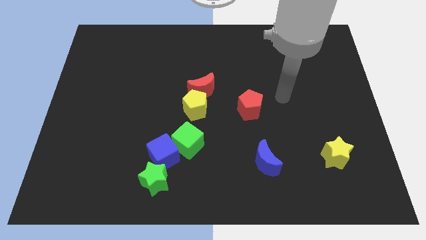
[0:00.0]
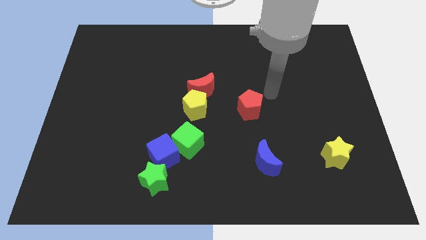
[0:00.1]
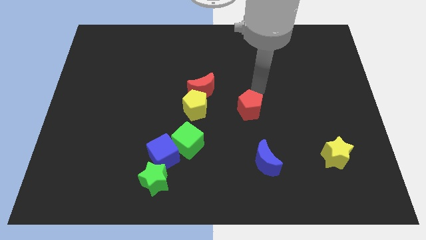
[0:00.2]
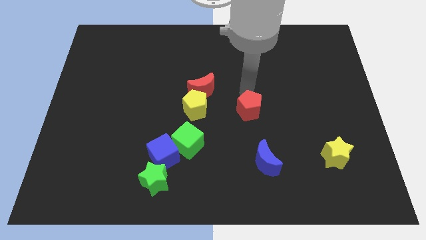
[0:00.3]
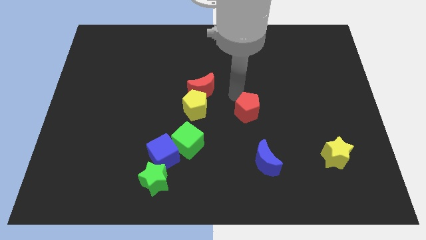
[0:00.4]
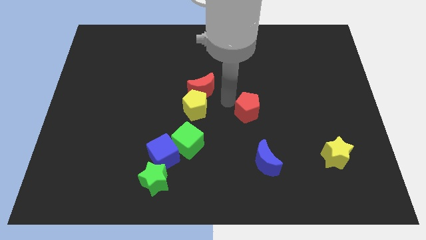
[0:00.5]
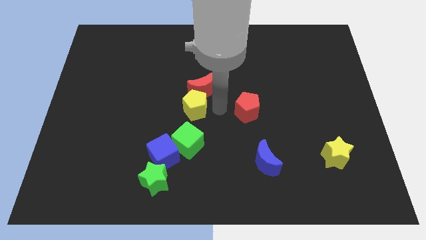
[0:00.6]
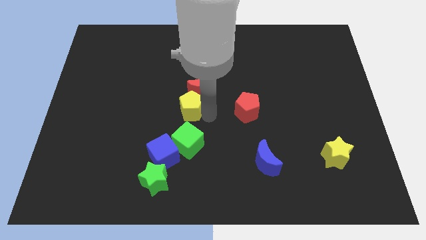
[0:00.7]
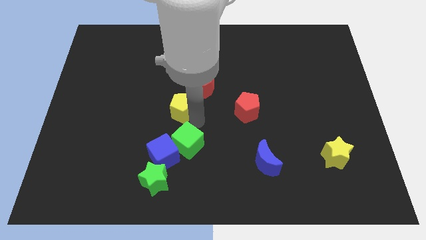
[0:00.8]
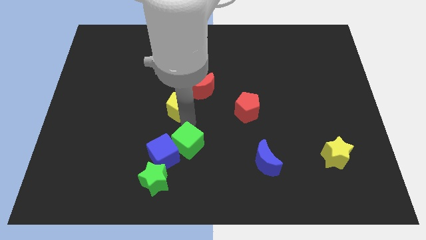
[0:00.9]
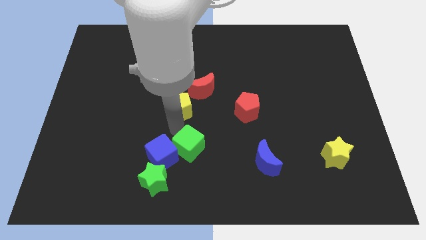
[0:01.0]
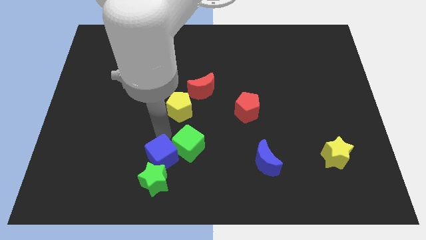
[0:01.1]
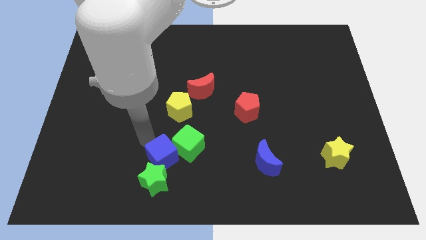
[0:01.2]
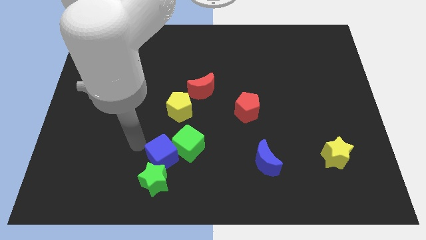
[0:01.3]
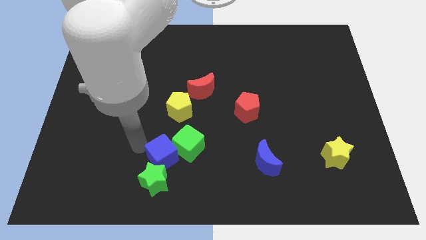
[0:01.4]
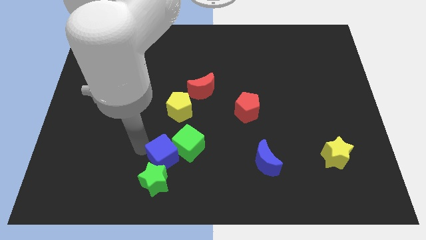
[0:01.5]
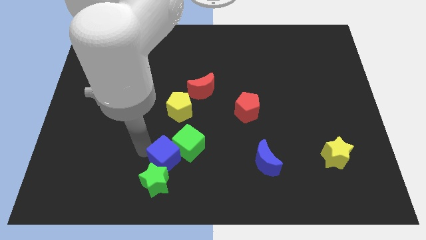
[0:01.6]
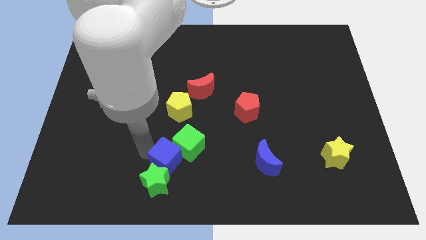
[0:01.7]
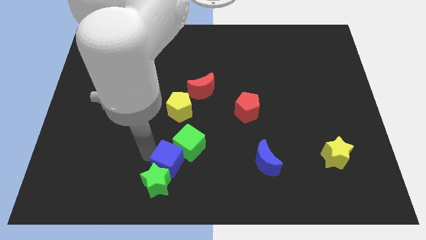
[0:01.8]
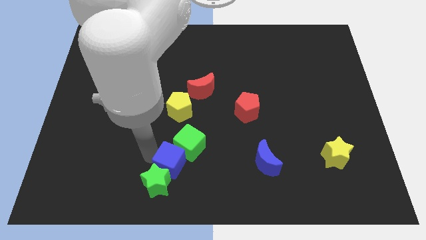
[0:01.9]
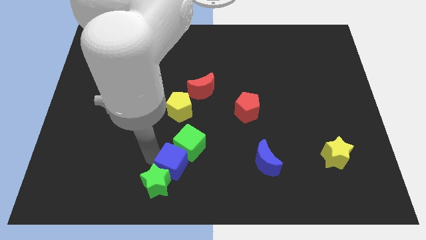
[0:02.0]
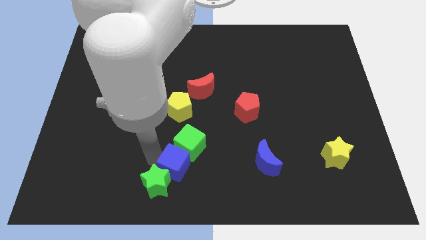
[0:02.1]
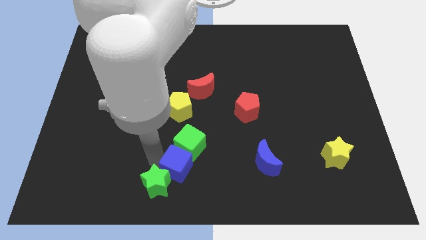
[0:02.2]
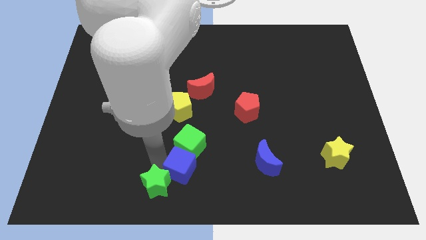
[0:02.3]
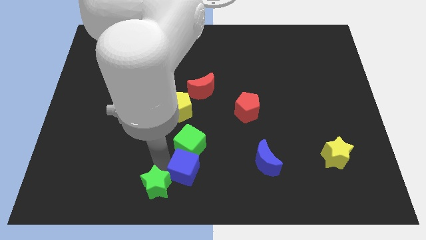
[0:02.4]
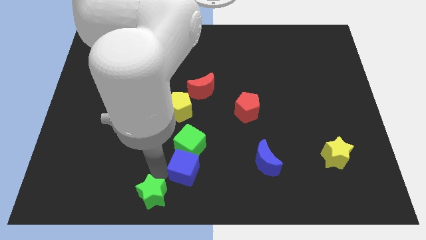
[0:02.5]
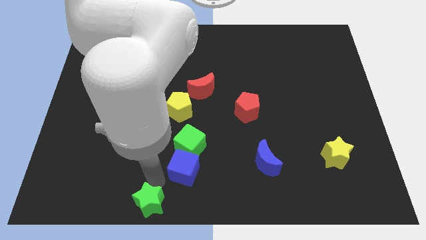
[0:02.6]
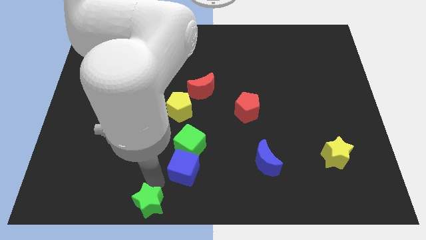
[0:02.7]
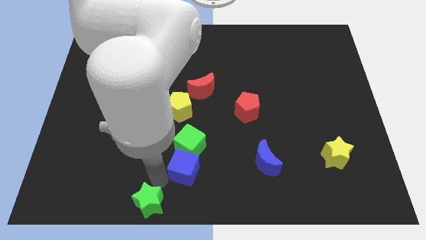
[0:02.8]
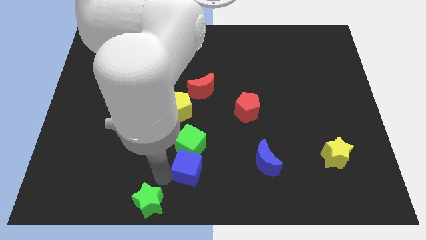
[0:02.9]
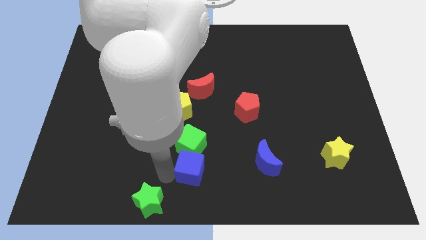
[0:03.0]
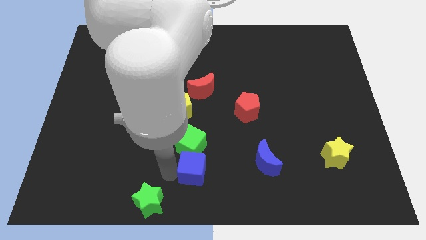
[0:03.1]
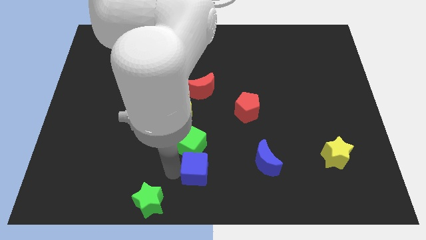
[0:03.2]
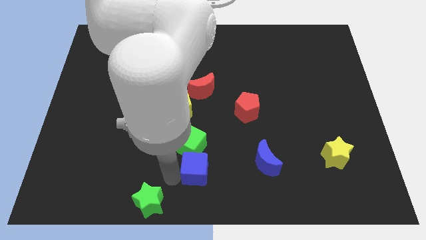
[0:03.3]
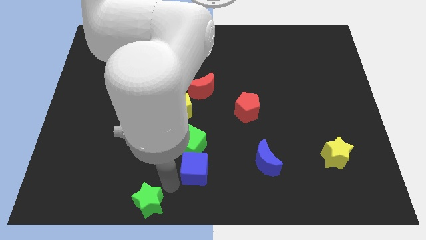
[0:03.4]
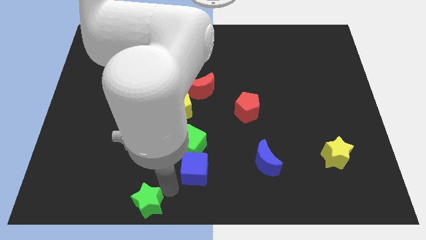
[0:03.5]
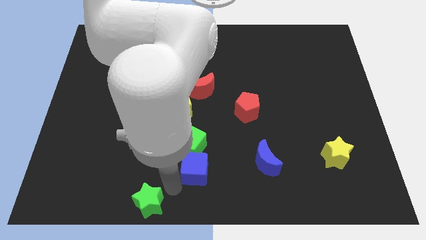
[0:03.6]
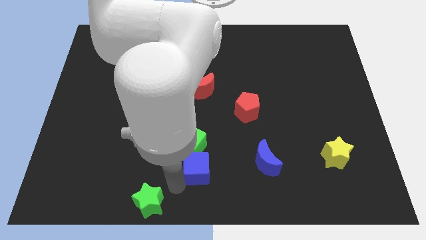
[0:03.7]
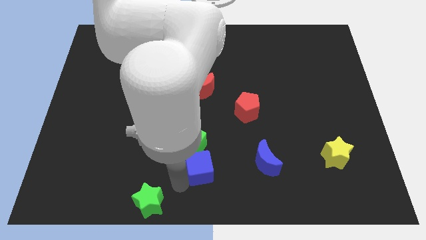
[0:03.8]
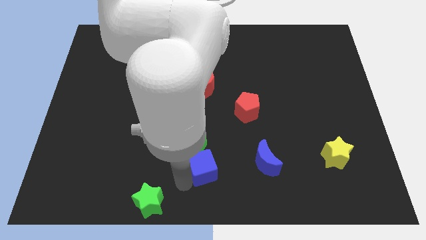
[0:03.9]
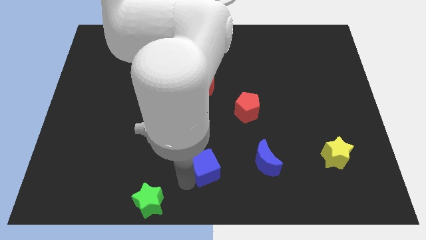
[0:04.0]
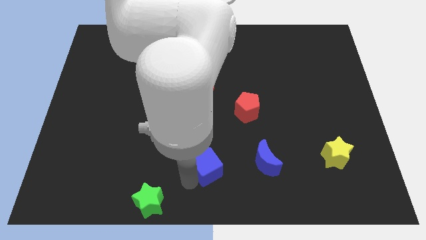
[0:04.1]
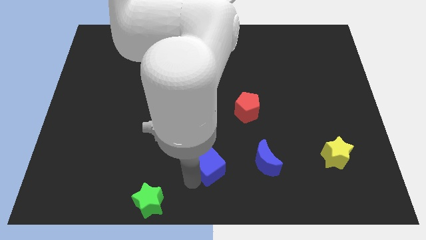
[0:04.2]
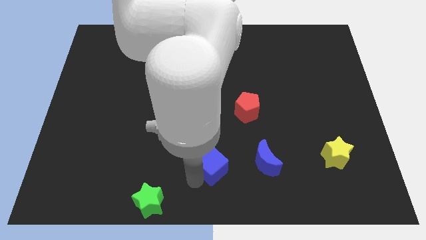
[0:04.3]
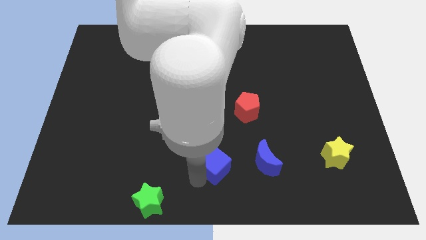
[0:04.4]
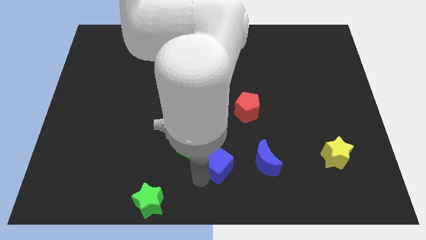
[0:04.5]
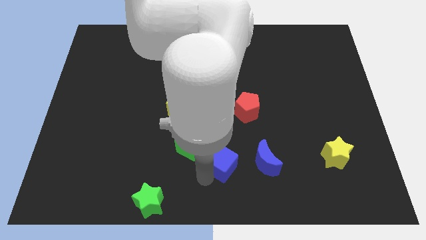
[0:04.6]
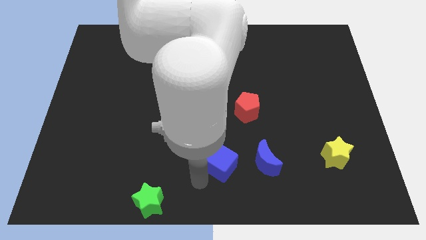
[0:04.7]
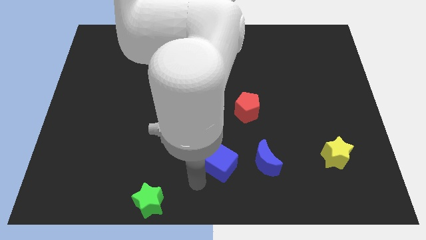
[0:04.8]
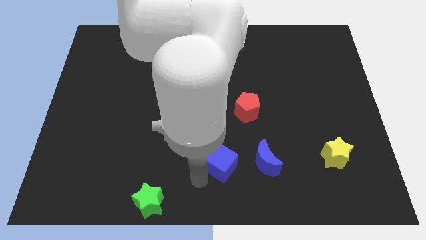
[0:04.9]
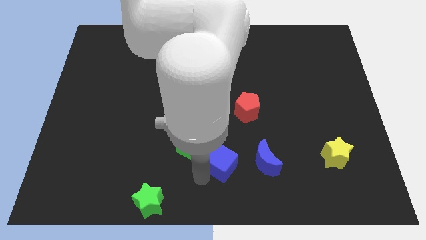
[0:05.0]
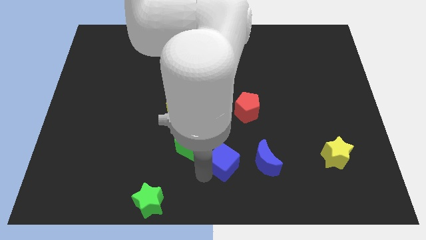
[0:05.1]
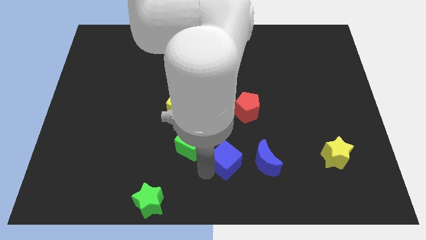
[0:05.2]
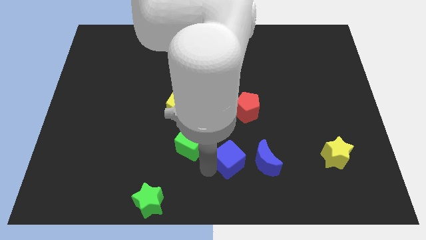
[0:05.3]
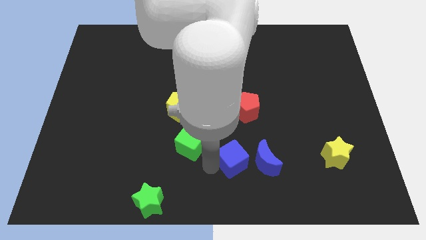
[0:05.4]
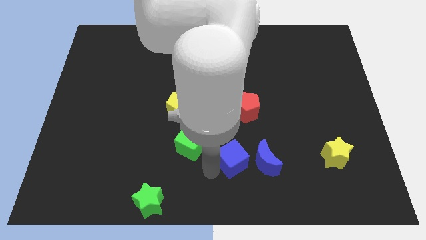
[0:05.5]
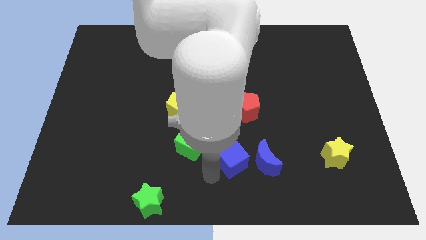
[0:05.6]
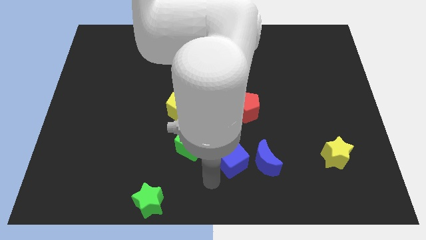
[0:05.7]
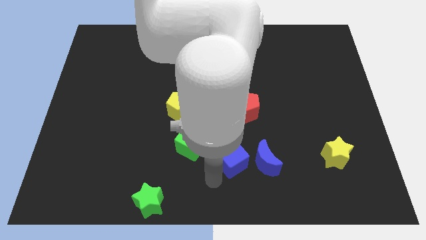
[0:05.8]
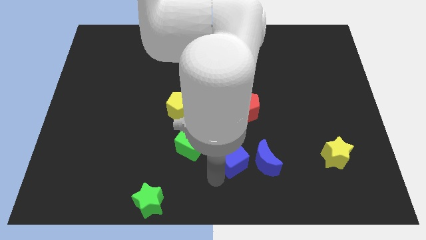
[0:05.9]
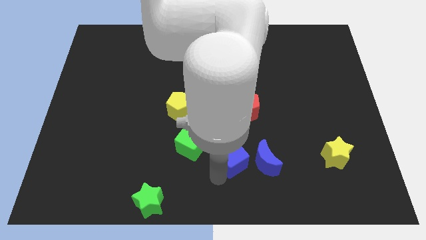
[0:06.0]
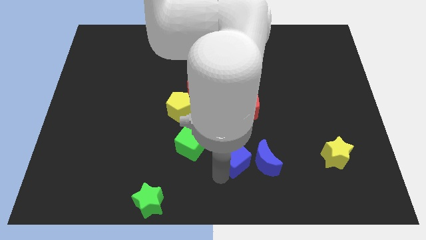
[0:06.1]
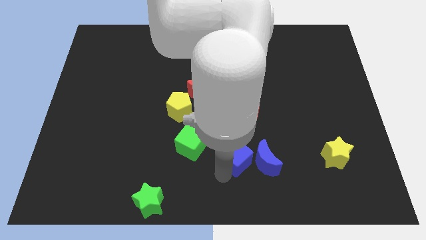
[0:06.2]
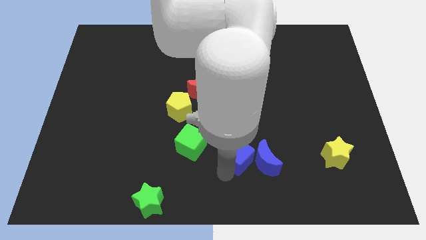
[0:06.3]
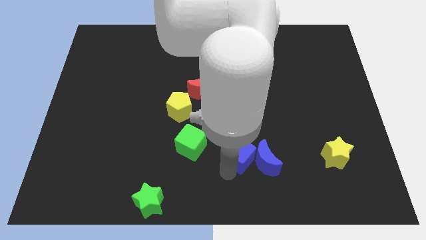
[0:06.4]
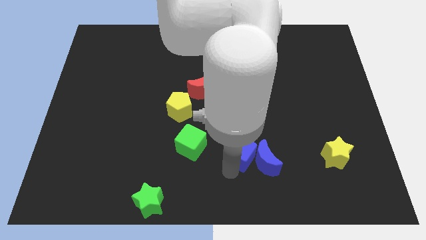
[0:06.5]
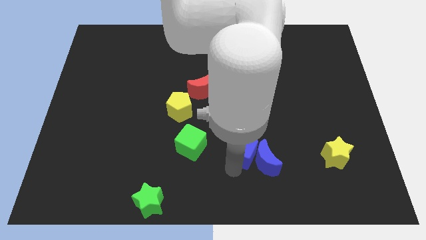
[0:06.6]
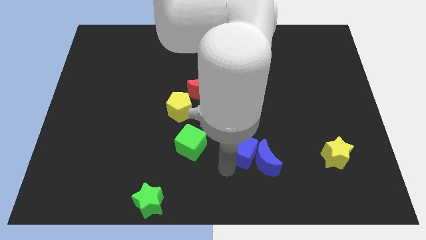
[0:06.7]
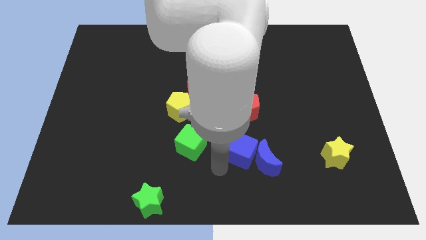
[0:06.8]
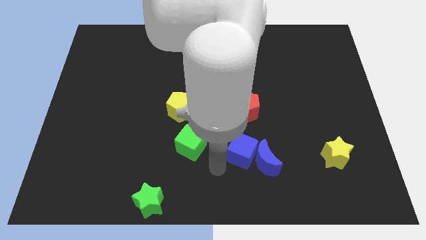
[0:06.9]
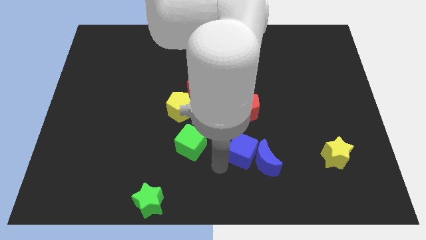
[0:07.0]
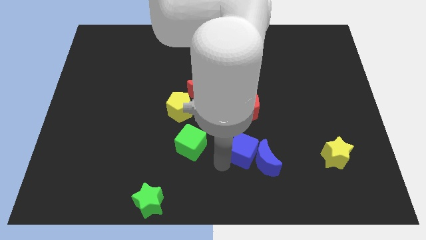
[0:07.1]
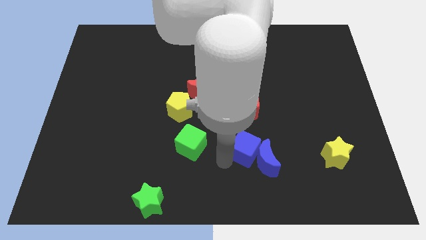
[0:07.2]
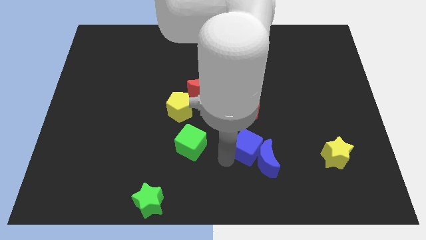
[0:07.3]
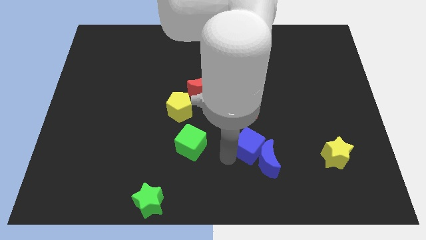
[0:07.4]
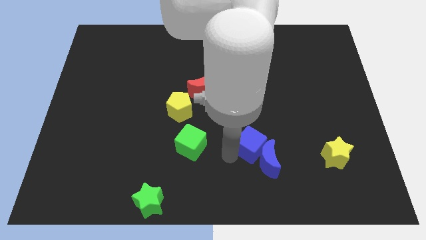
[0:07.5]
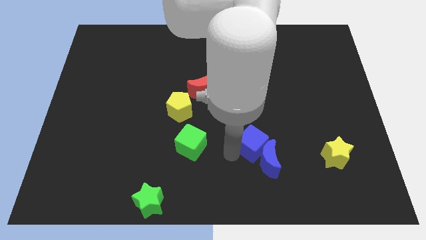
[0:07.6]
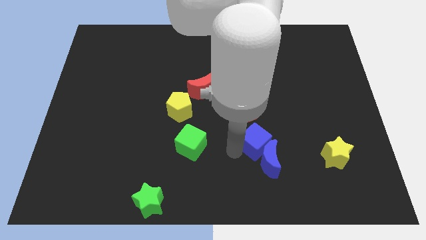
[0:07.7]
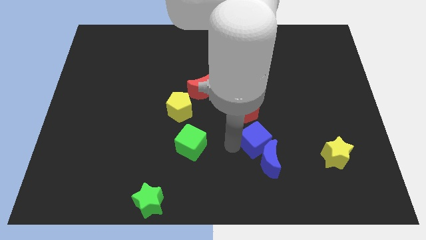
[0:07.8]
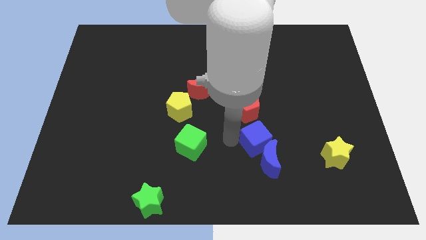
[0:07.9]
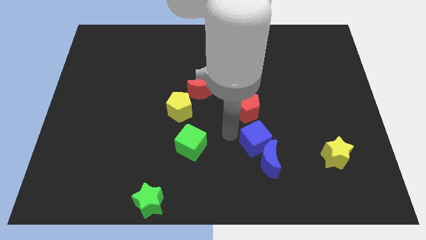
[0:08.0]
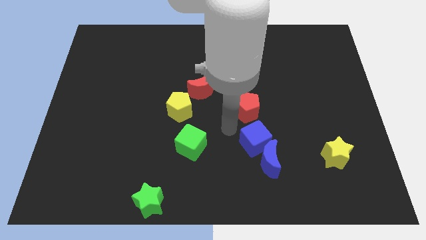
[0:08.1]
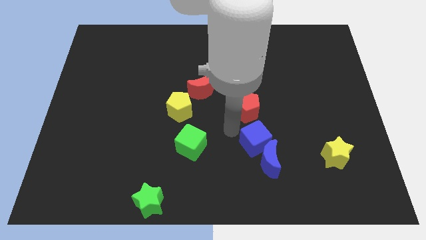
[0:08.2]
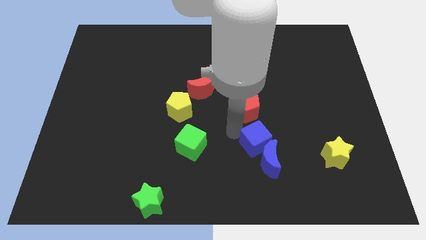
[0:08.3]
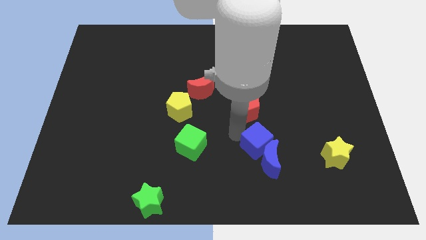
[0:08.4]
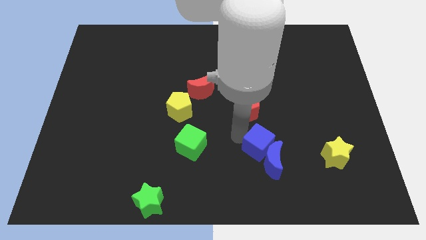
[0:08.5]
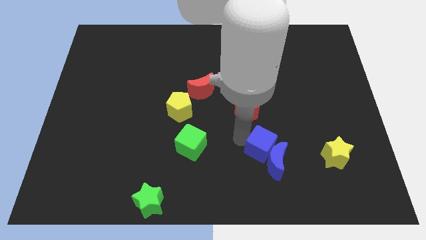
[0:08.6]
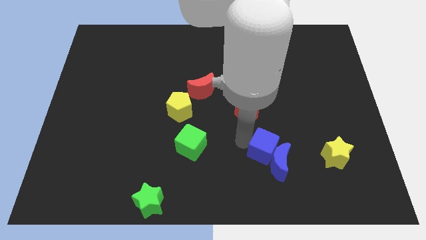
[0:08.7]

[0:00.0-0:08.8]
put the blue cube to the left side of the yellow star
